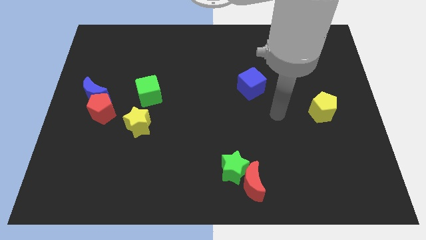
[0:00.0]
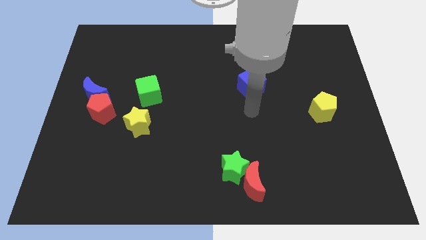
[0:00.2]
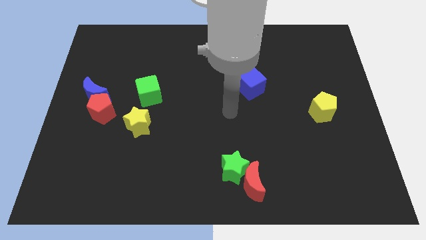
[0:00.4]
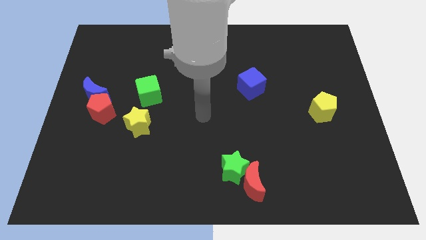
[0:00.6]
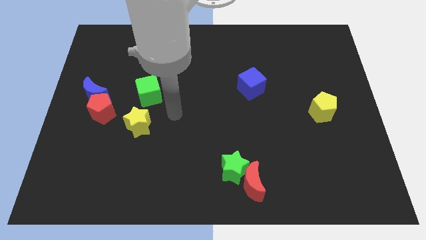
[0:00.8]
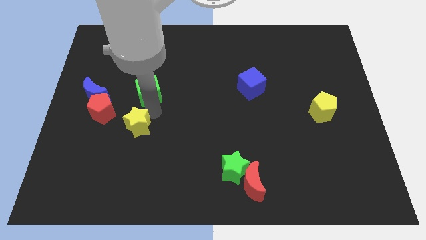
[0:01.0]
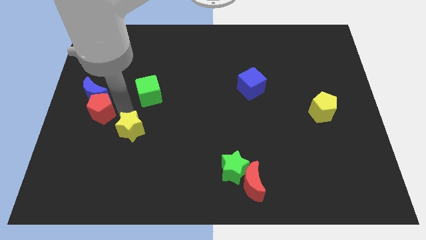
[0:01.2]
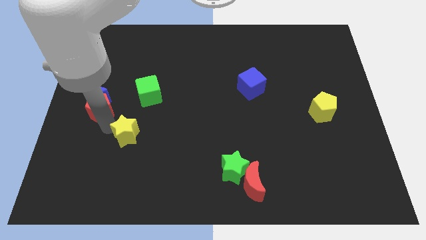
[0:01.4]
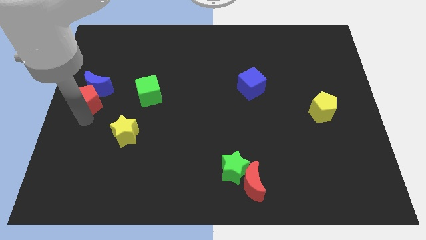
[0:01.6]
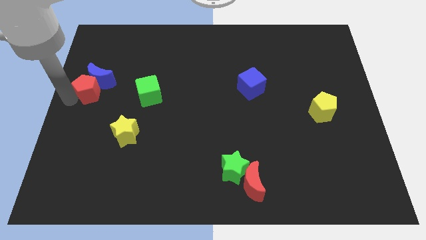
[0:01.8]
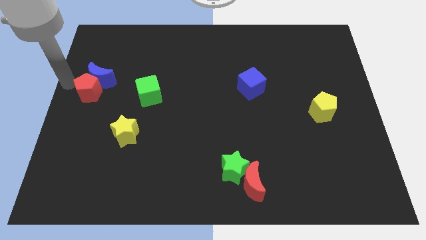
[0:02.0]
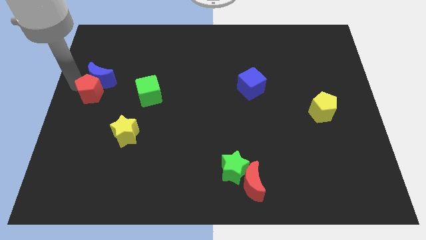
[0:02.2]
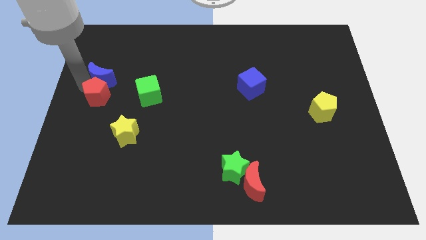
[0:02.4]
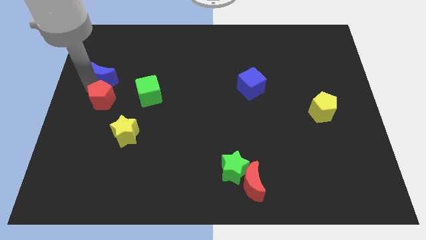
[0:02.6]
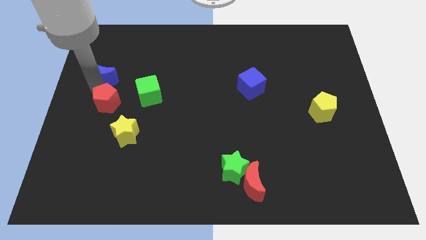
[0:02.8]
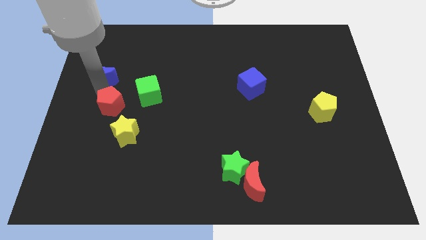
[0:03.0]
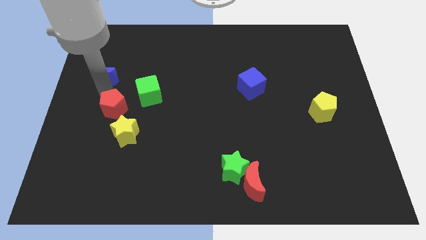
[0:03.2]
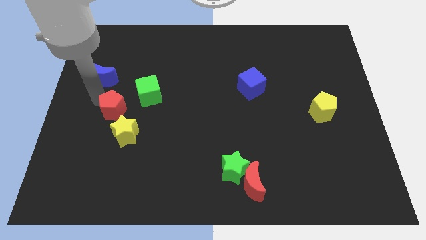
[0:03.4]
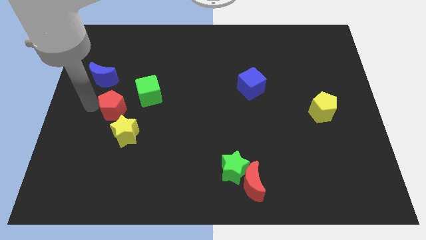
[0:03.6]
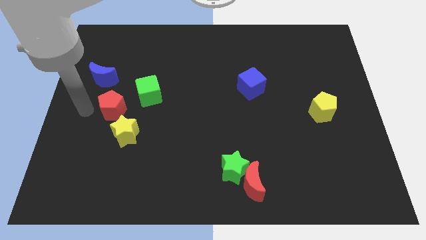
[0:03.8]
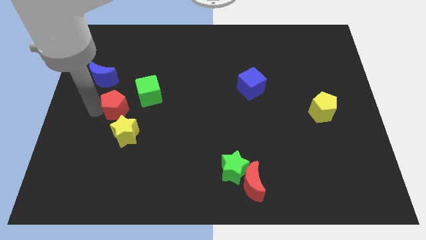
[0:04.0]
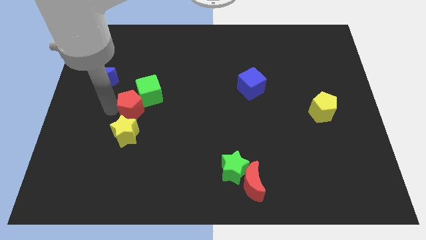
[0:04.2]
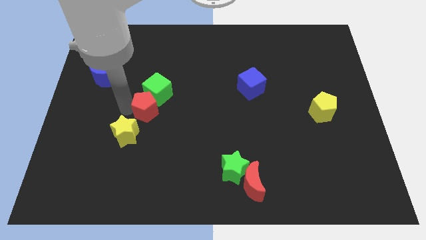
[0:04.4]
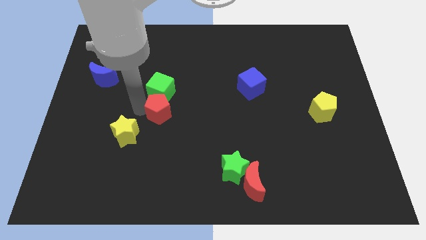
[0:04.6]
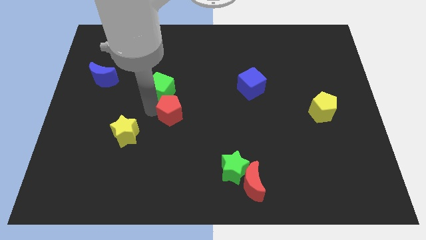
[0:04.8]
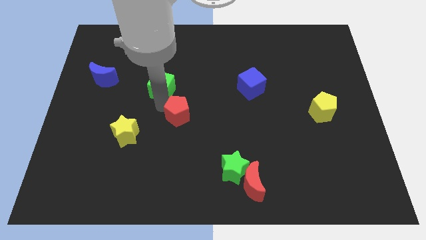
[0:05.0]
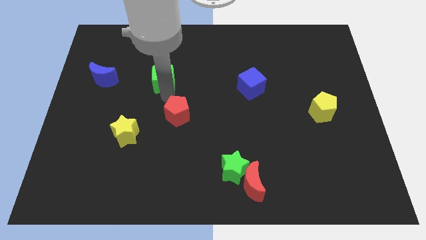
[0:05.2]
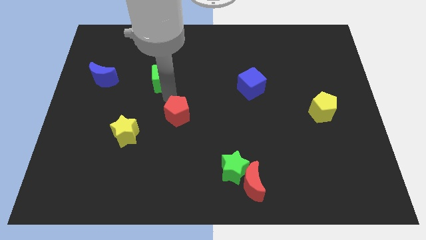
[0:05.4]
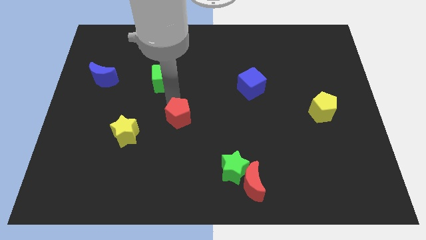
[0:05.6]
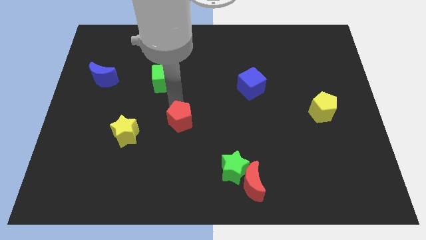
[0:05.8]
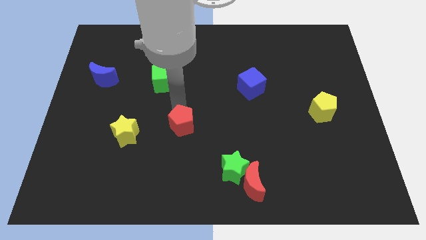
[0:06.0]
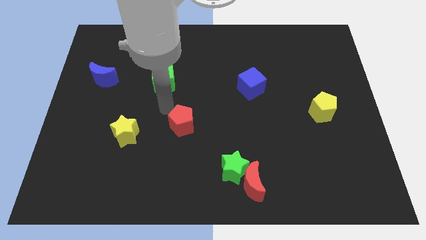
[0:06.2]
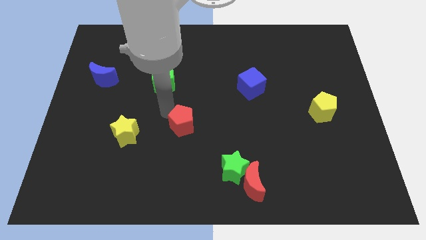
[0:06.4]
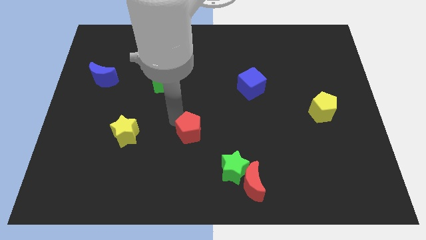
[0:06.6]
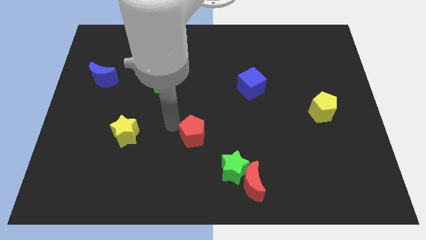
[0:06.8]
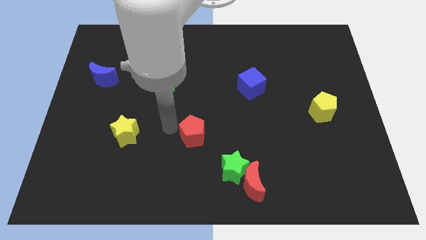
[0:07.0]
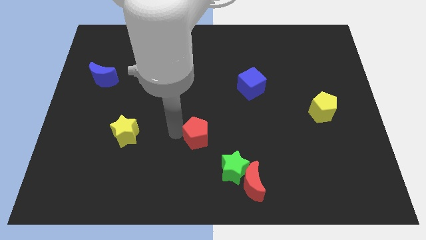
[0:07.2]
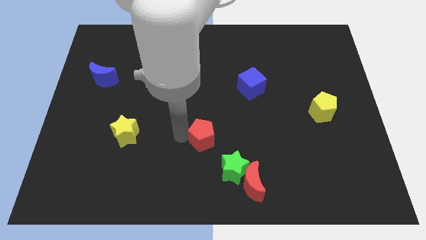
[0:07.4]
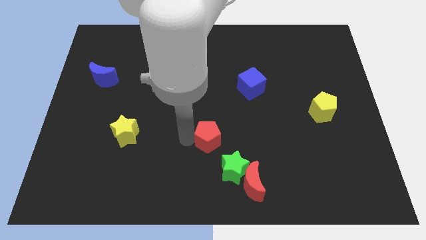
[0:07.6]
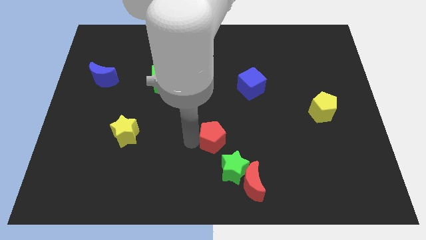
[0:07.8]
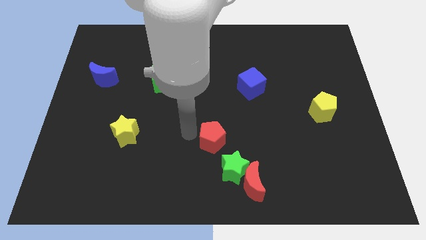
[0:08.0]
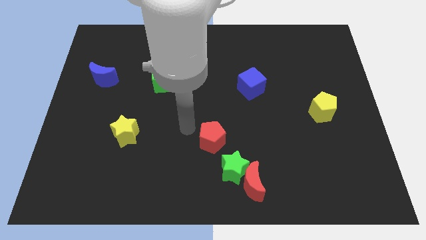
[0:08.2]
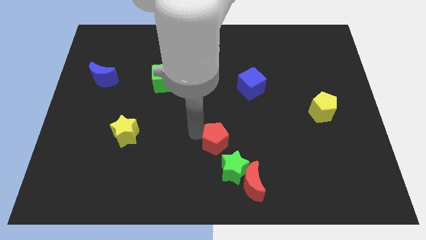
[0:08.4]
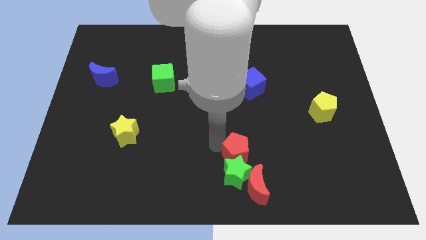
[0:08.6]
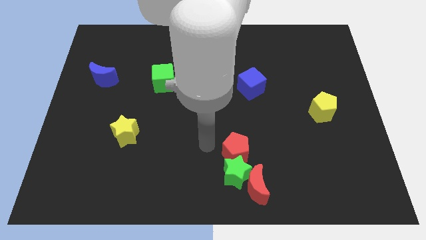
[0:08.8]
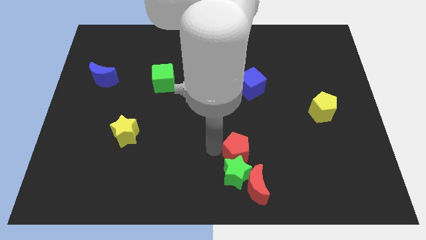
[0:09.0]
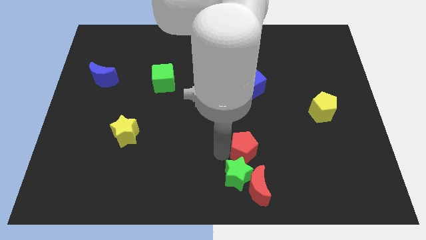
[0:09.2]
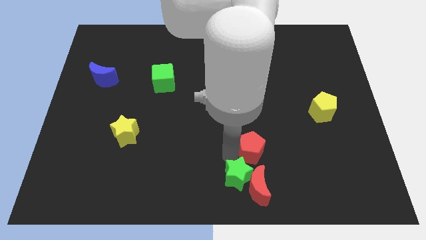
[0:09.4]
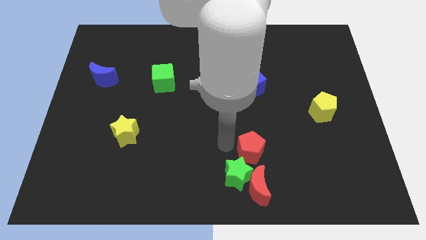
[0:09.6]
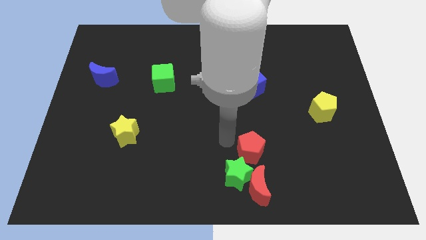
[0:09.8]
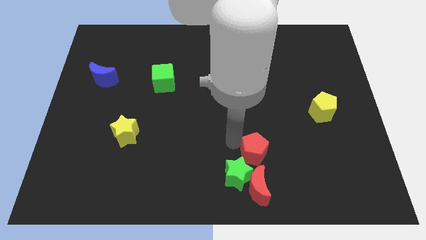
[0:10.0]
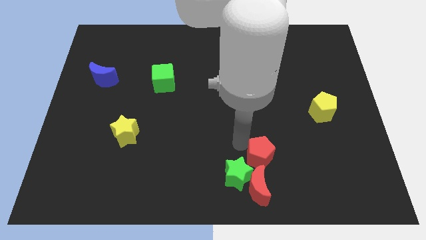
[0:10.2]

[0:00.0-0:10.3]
slide the red pentagon to the top right of the red moon
